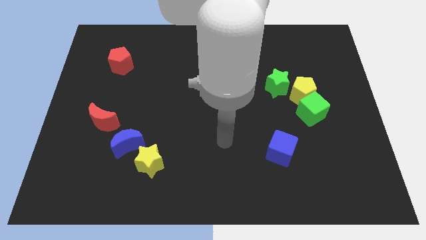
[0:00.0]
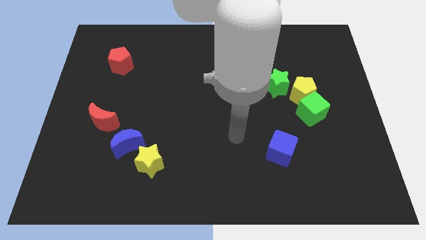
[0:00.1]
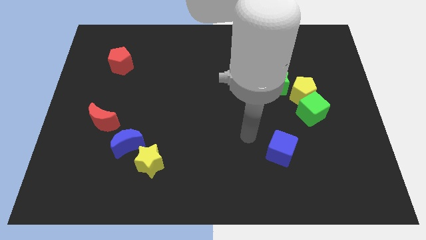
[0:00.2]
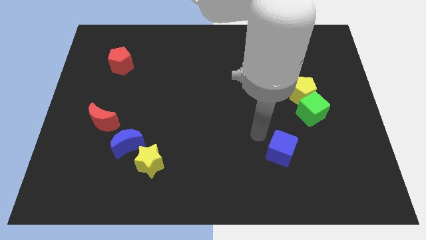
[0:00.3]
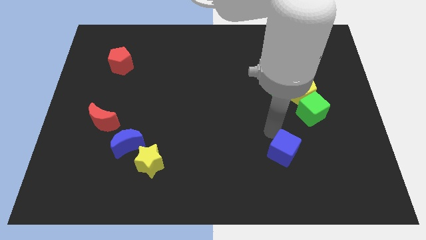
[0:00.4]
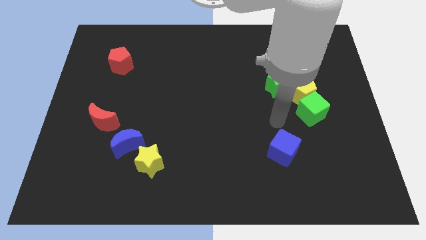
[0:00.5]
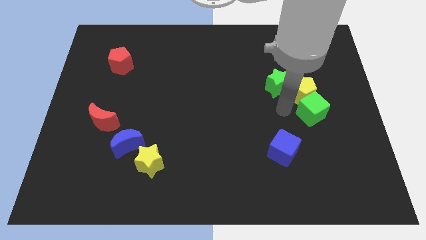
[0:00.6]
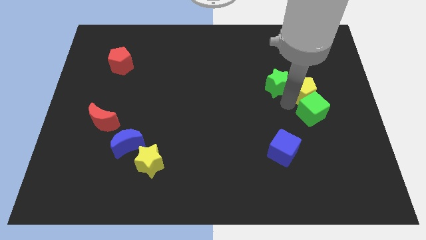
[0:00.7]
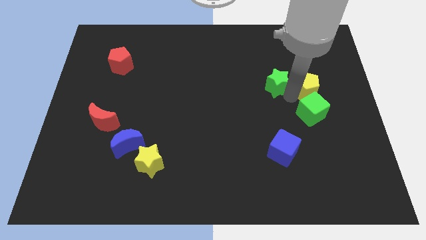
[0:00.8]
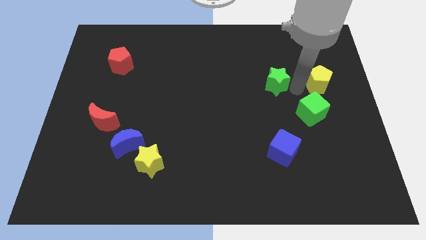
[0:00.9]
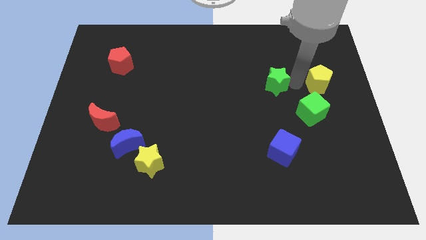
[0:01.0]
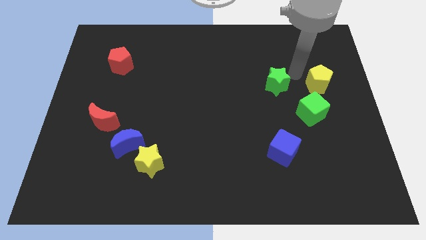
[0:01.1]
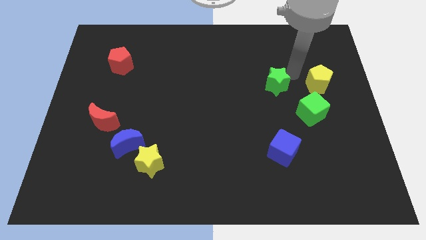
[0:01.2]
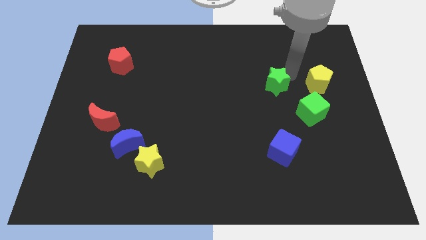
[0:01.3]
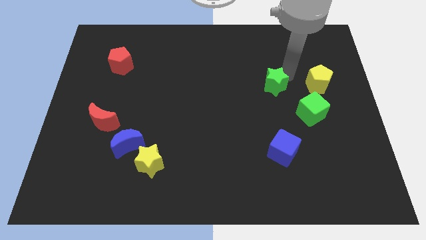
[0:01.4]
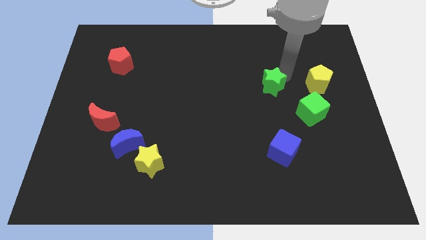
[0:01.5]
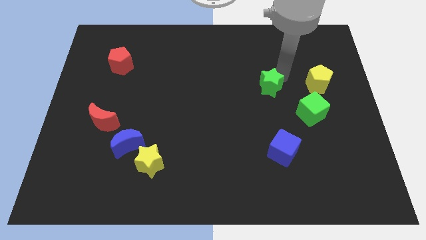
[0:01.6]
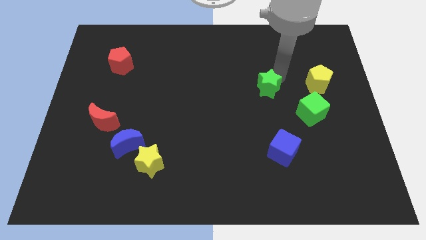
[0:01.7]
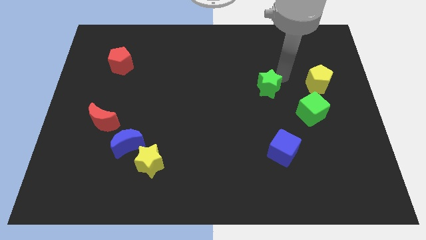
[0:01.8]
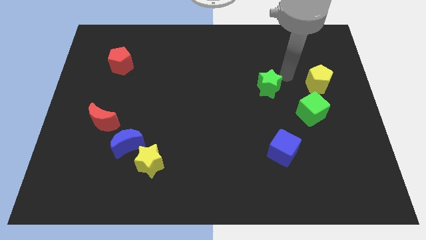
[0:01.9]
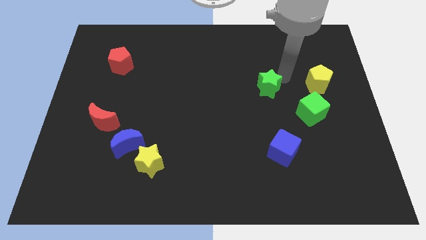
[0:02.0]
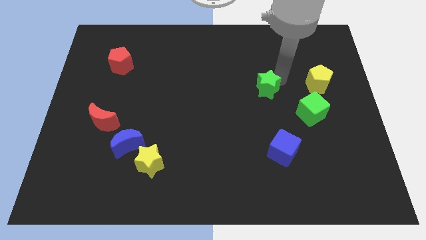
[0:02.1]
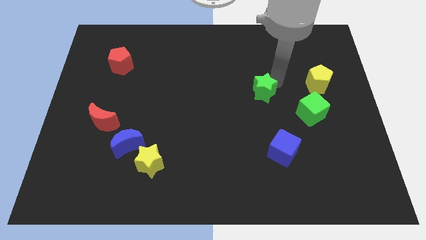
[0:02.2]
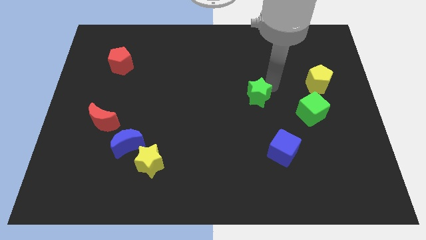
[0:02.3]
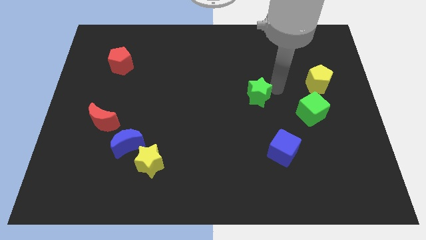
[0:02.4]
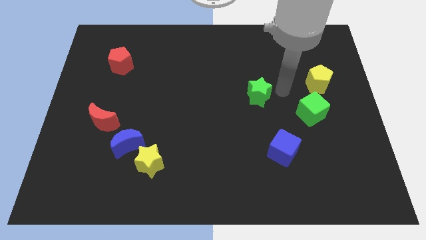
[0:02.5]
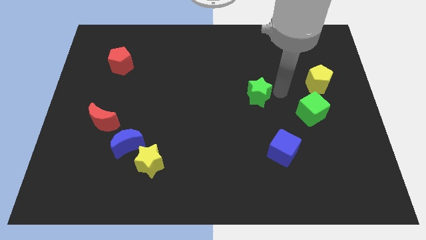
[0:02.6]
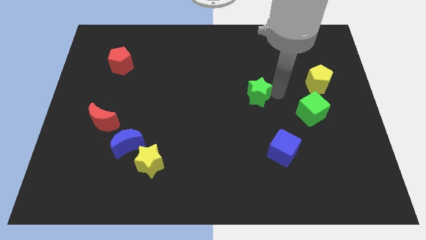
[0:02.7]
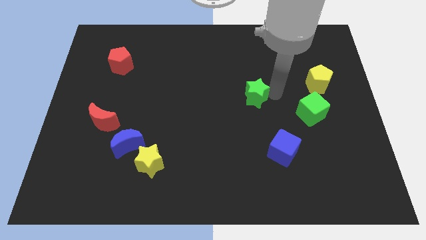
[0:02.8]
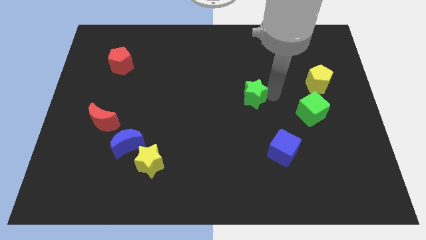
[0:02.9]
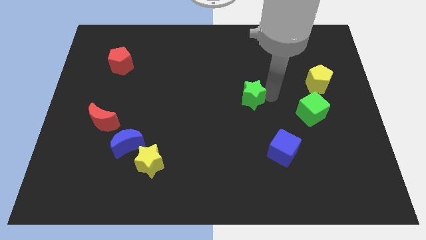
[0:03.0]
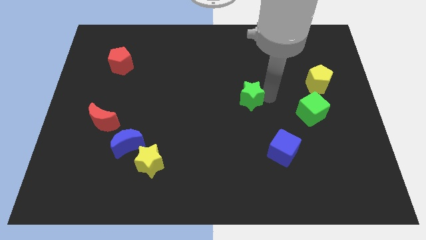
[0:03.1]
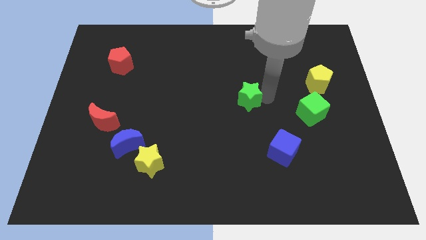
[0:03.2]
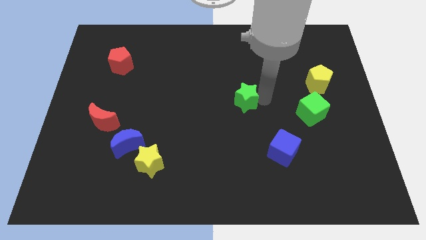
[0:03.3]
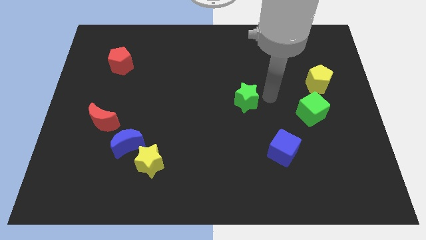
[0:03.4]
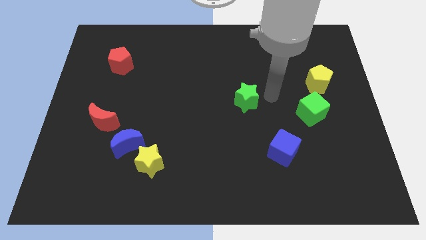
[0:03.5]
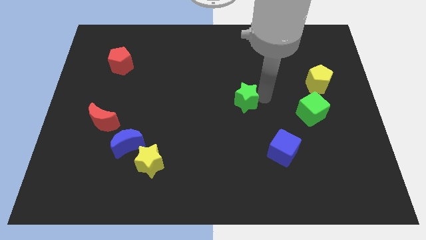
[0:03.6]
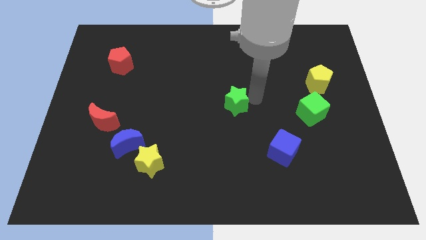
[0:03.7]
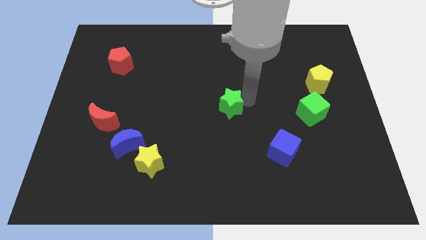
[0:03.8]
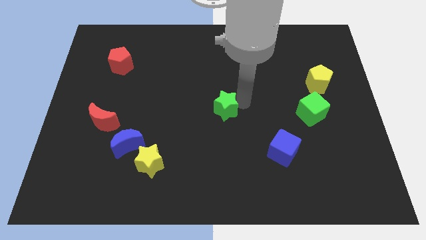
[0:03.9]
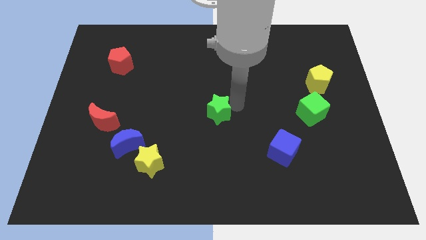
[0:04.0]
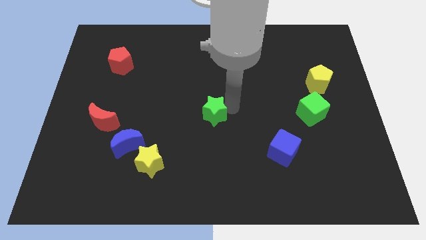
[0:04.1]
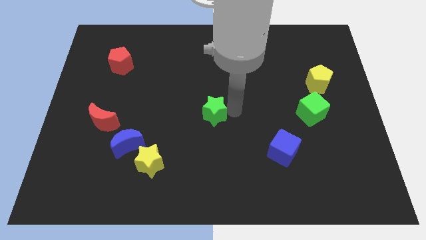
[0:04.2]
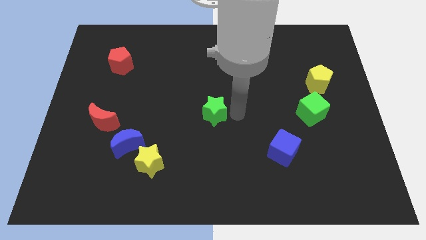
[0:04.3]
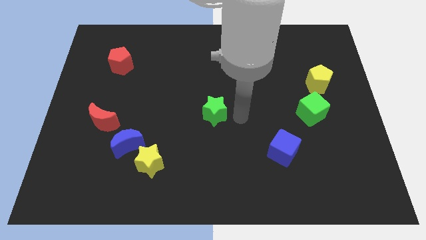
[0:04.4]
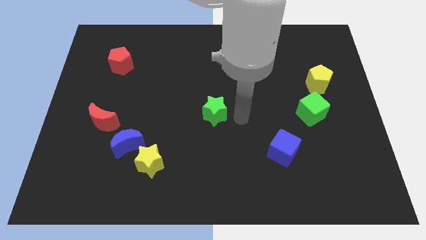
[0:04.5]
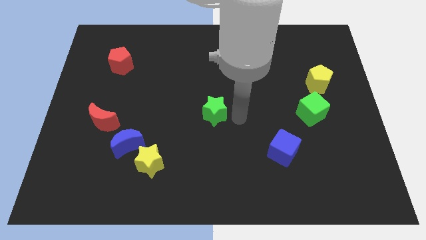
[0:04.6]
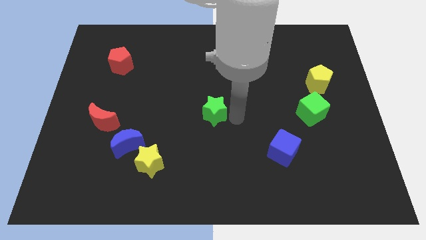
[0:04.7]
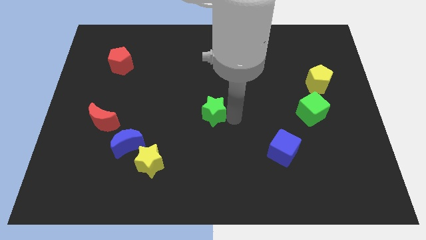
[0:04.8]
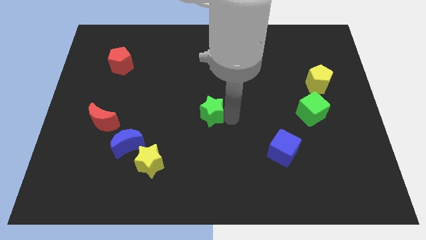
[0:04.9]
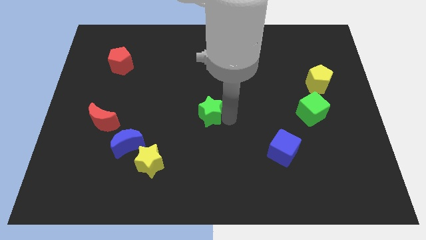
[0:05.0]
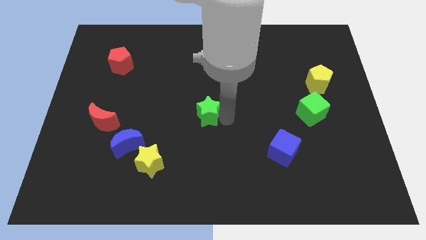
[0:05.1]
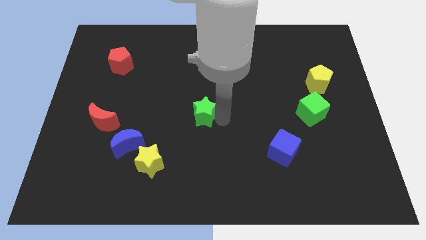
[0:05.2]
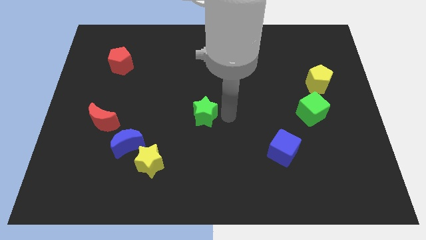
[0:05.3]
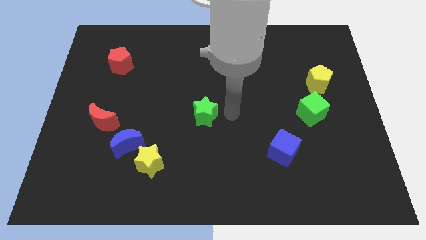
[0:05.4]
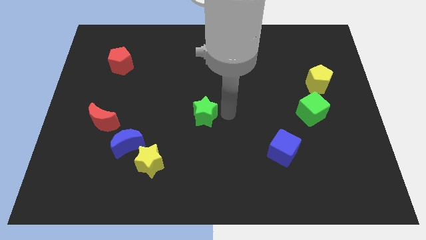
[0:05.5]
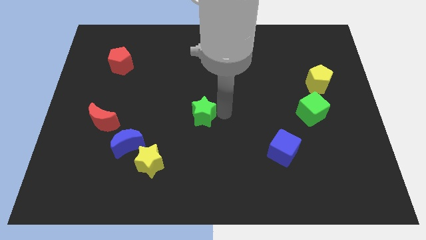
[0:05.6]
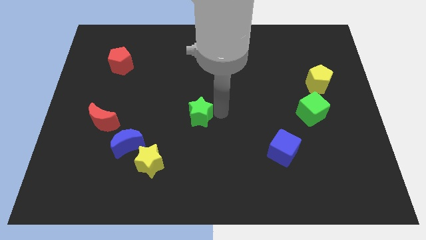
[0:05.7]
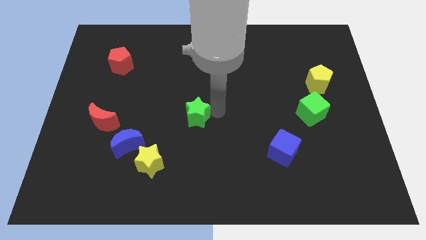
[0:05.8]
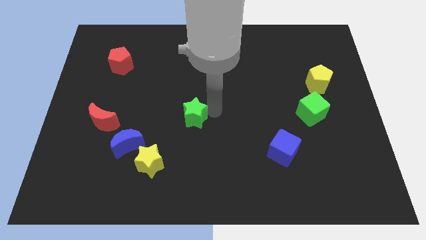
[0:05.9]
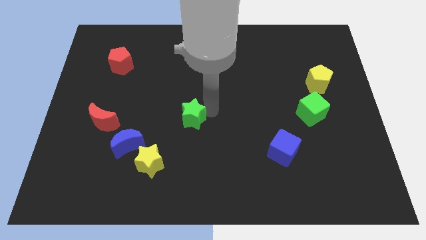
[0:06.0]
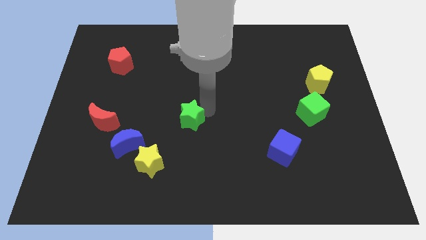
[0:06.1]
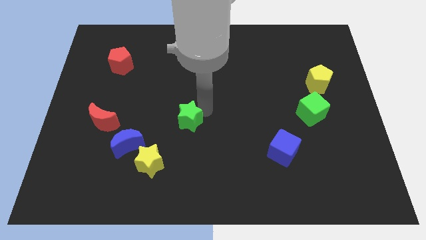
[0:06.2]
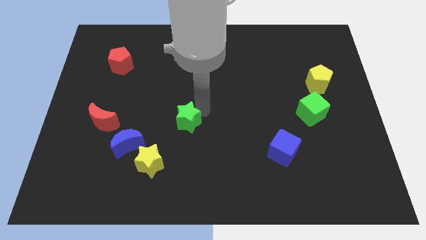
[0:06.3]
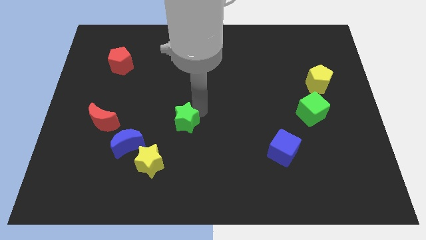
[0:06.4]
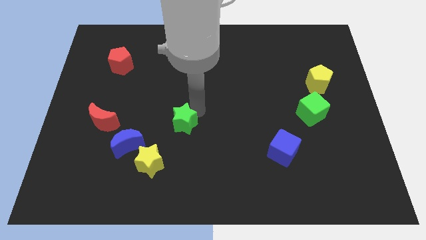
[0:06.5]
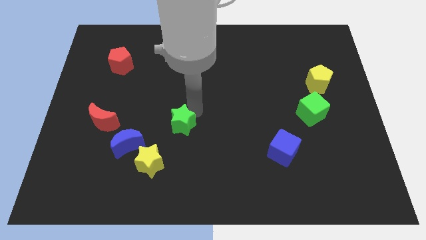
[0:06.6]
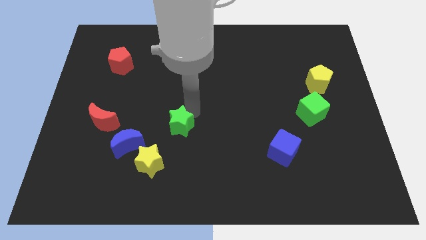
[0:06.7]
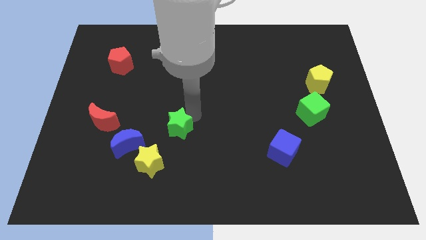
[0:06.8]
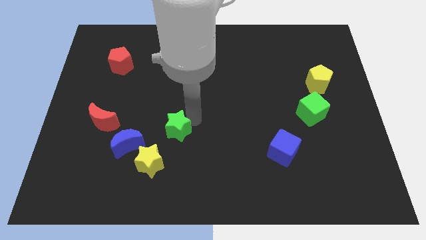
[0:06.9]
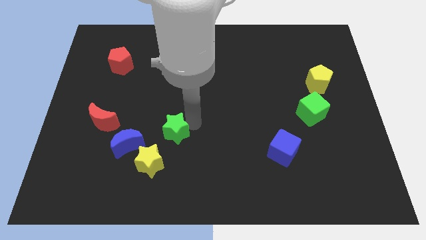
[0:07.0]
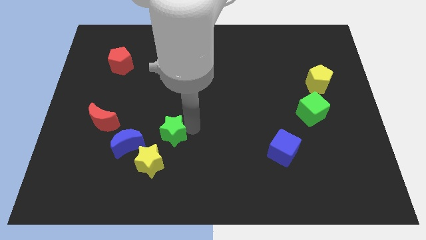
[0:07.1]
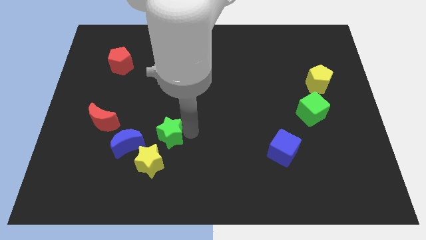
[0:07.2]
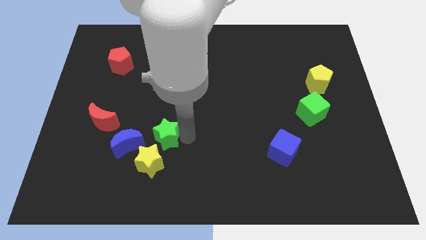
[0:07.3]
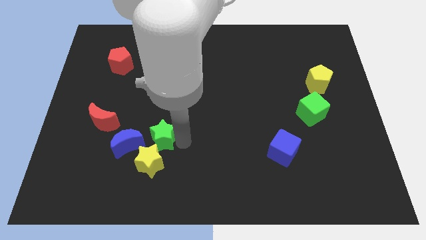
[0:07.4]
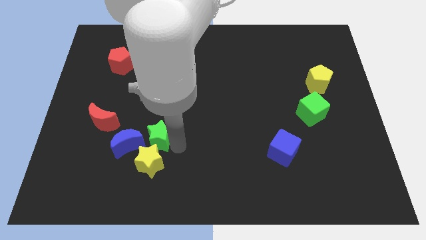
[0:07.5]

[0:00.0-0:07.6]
put the green star to the right of the red moon
